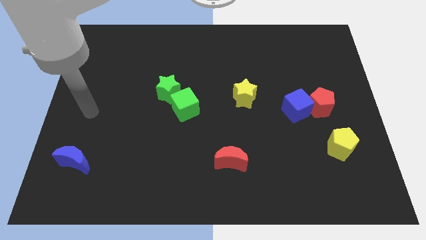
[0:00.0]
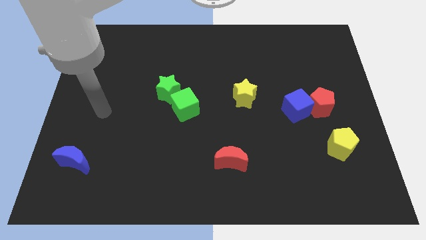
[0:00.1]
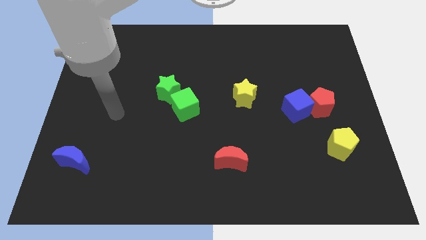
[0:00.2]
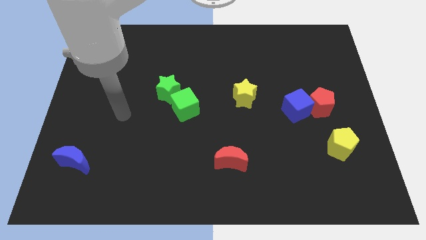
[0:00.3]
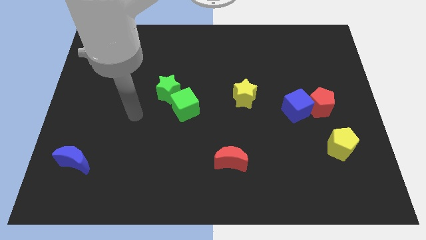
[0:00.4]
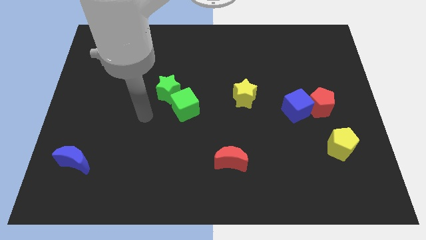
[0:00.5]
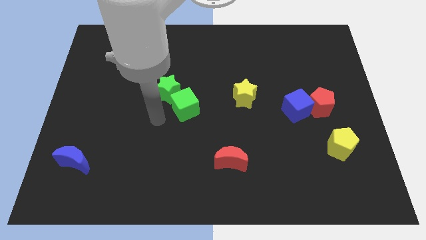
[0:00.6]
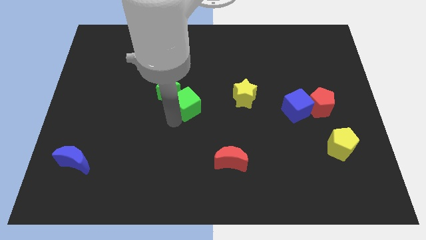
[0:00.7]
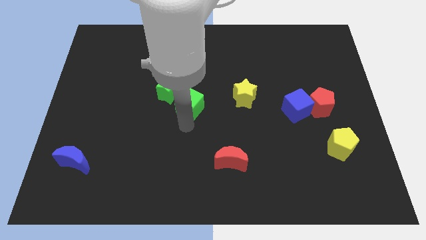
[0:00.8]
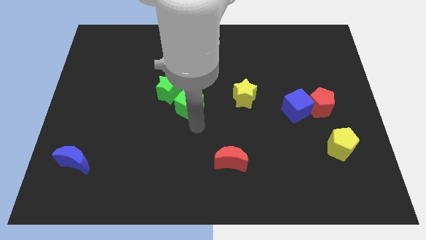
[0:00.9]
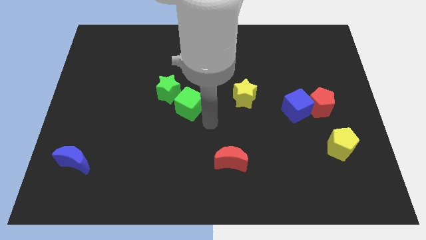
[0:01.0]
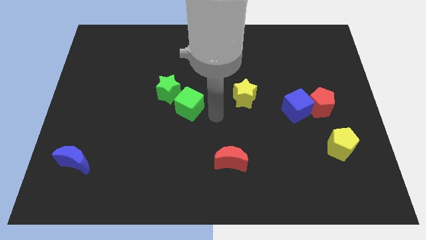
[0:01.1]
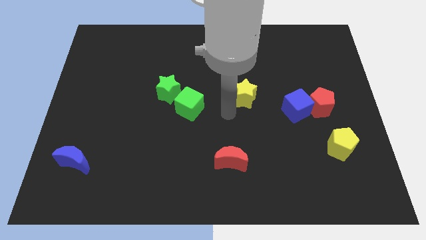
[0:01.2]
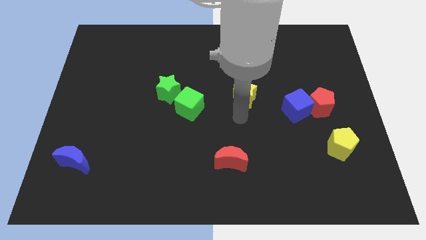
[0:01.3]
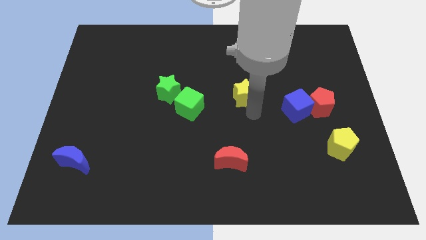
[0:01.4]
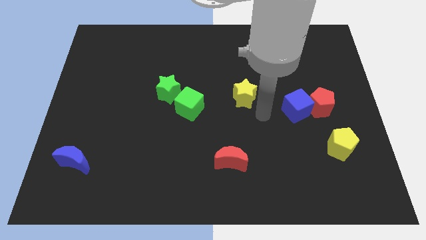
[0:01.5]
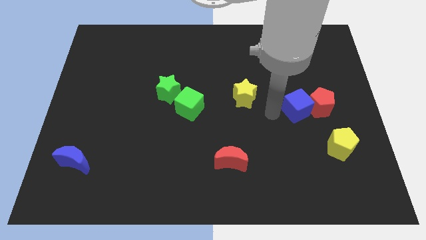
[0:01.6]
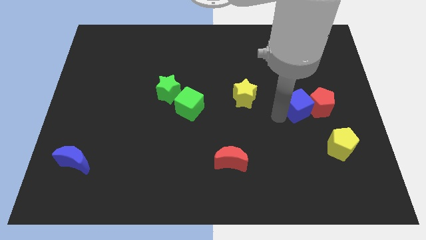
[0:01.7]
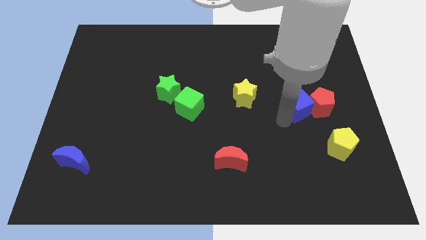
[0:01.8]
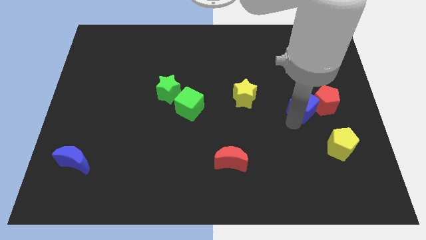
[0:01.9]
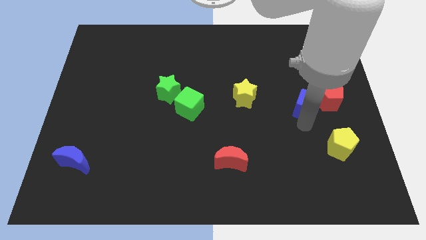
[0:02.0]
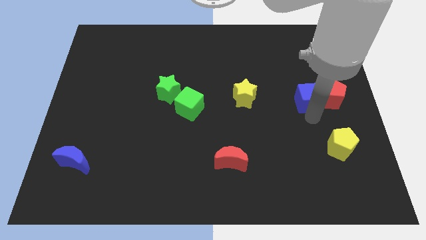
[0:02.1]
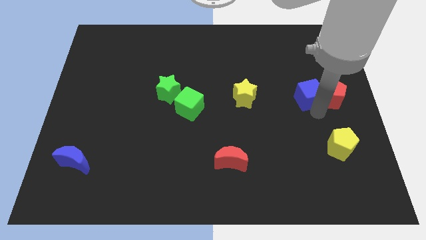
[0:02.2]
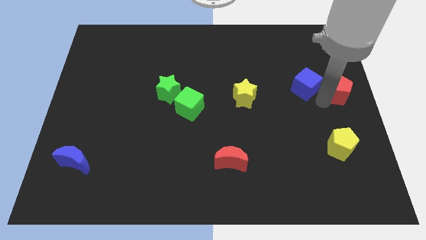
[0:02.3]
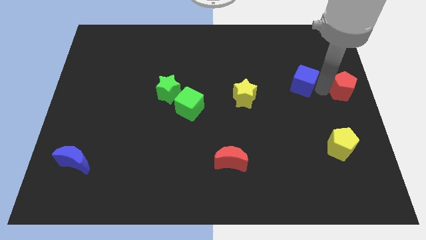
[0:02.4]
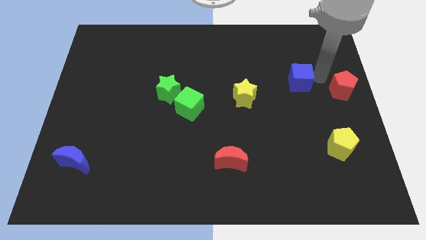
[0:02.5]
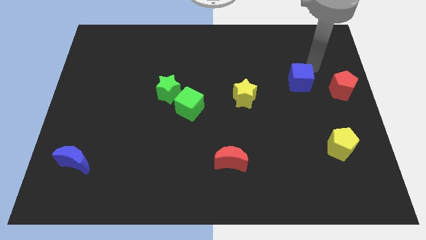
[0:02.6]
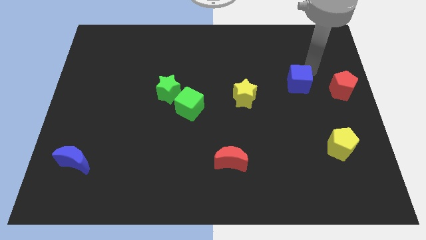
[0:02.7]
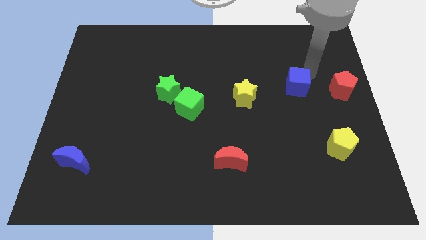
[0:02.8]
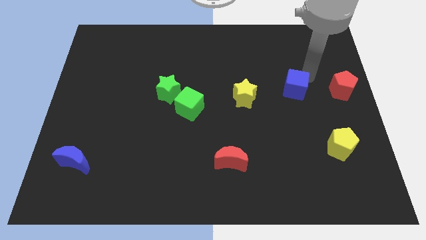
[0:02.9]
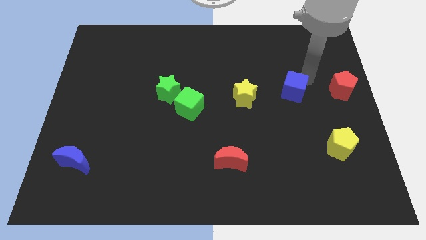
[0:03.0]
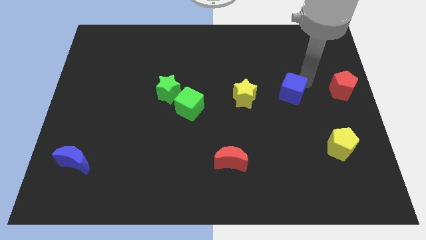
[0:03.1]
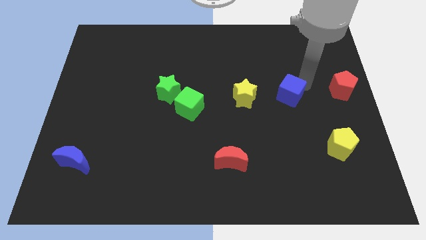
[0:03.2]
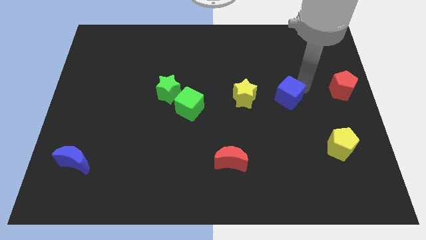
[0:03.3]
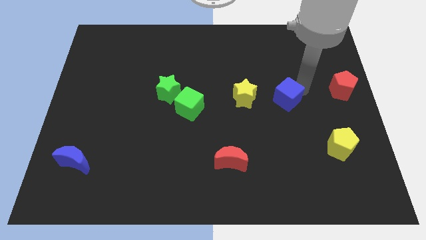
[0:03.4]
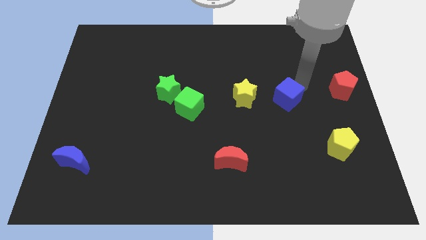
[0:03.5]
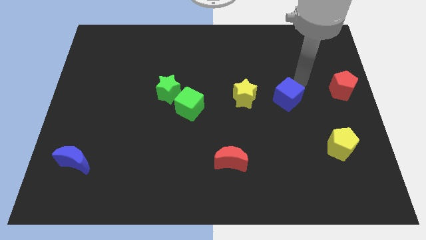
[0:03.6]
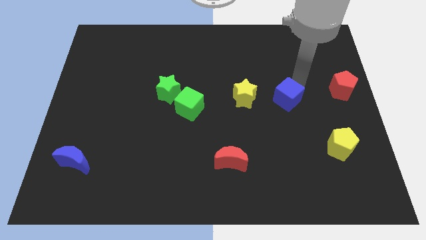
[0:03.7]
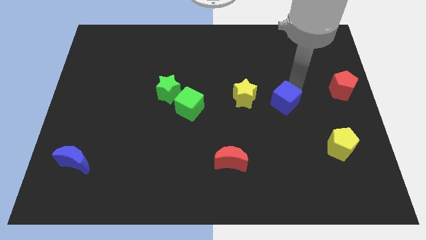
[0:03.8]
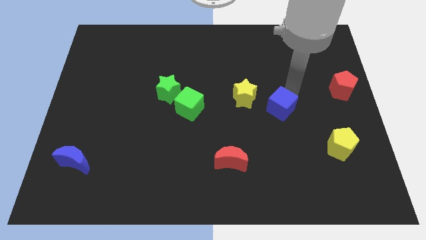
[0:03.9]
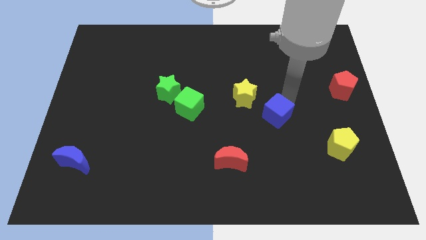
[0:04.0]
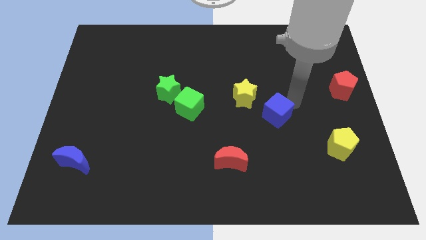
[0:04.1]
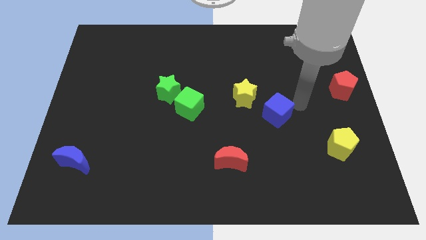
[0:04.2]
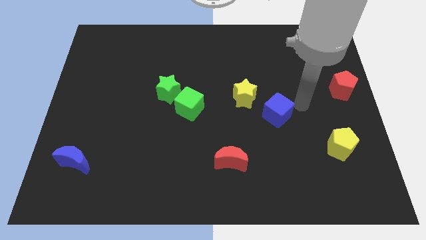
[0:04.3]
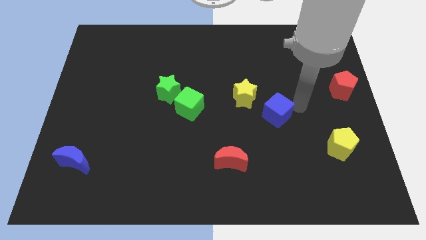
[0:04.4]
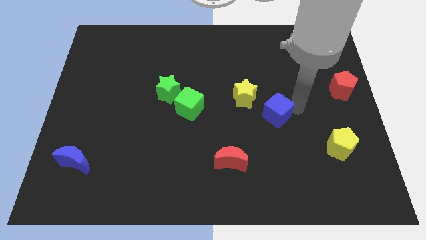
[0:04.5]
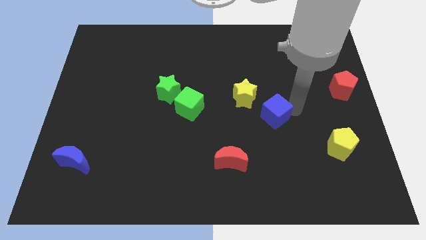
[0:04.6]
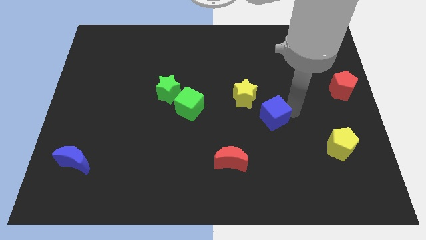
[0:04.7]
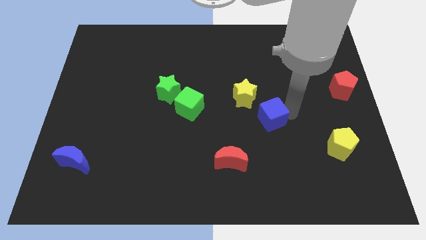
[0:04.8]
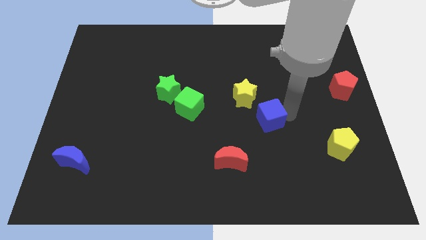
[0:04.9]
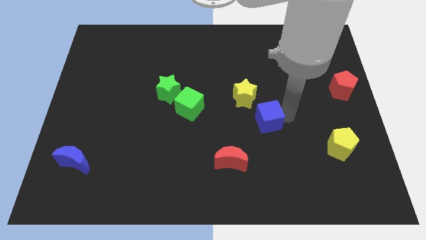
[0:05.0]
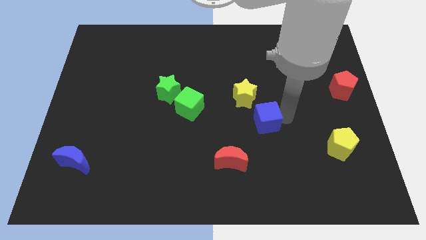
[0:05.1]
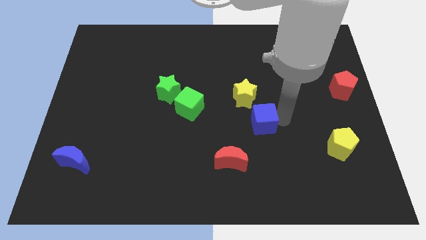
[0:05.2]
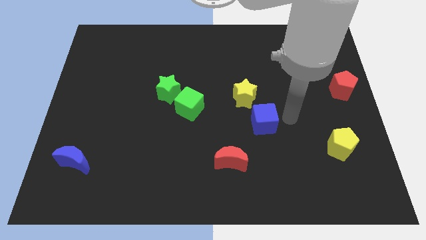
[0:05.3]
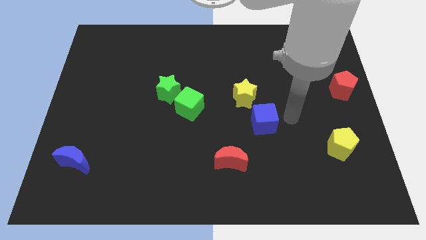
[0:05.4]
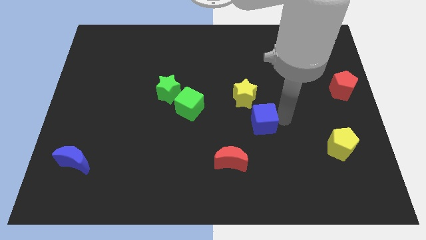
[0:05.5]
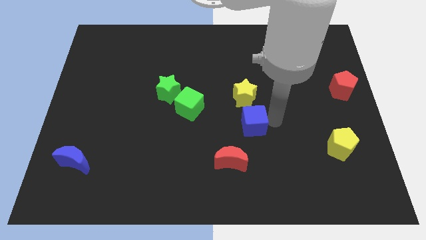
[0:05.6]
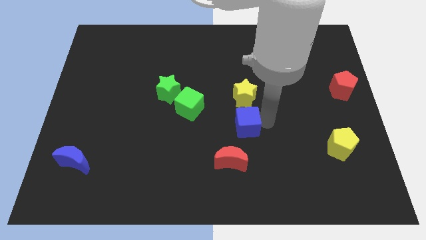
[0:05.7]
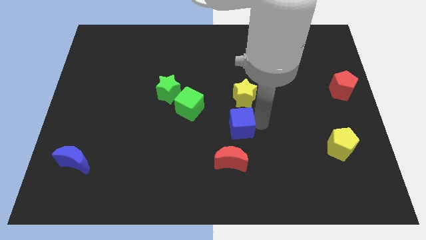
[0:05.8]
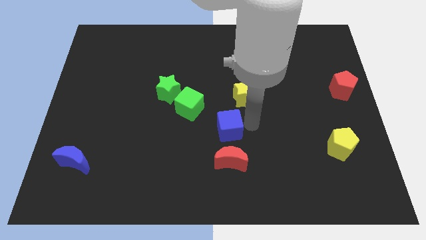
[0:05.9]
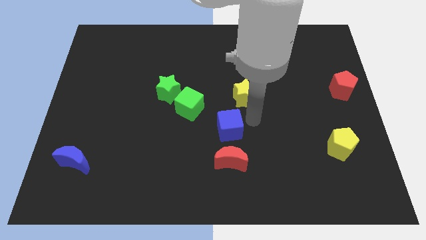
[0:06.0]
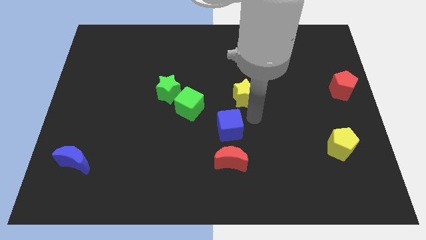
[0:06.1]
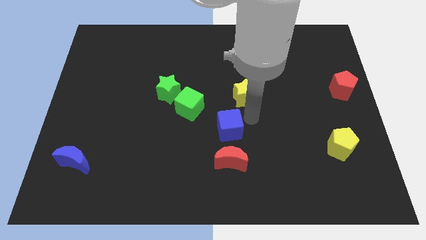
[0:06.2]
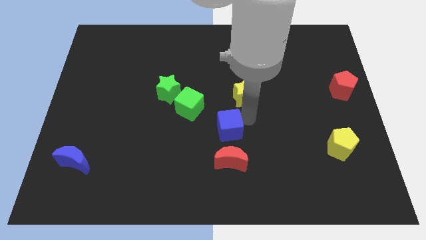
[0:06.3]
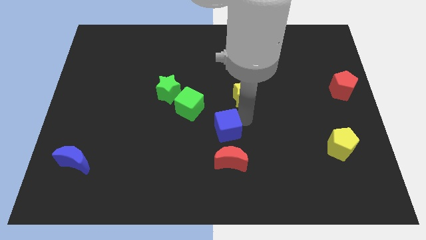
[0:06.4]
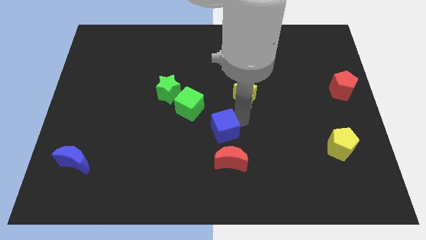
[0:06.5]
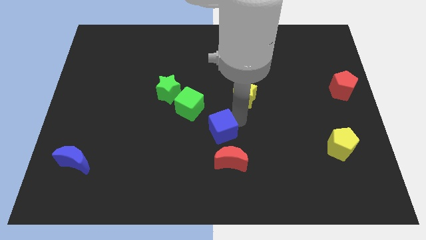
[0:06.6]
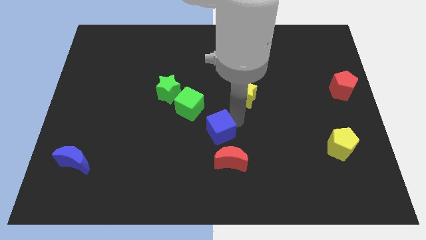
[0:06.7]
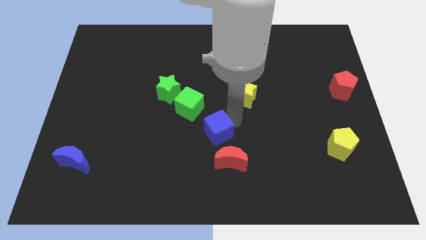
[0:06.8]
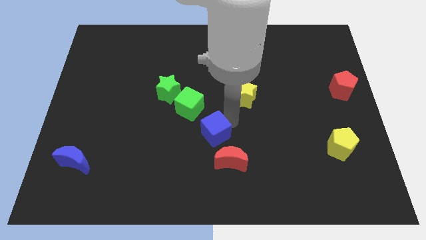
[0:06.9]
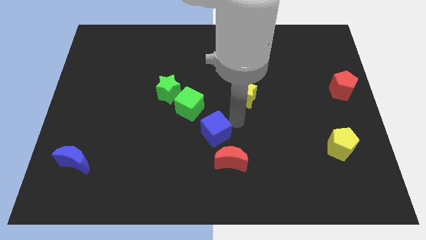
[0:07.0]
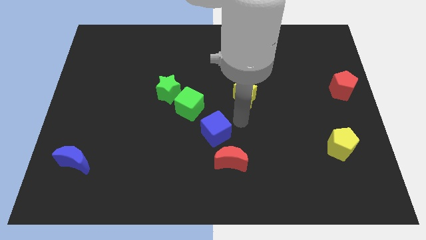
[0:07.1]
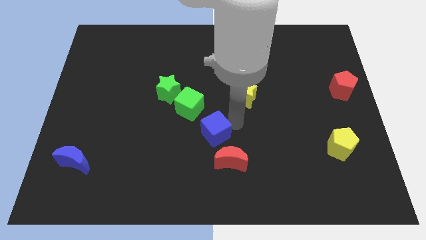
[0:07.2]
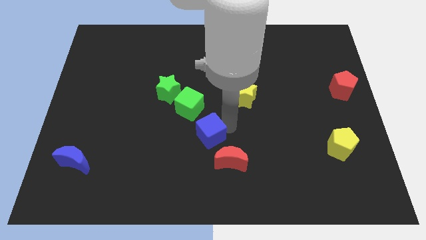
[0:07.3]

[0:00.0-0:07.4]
put the blue cube below the green cube
